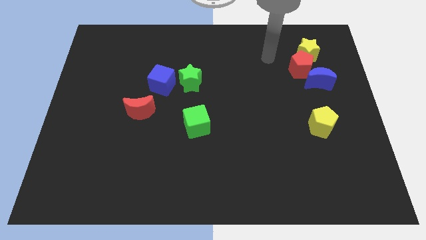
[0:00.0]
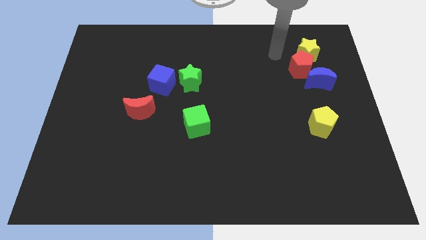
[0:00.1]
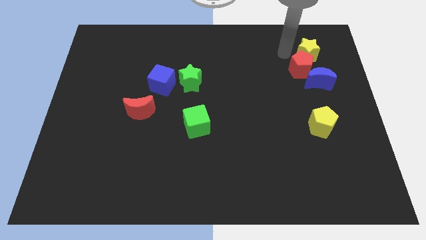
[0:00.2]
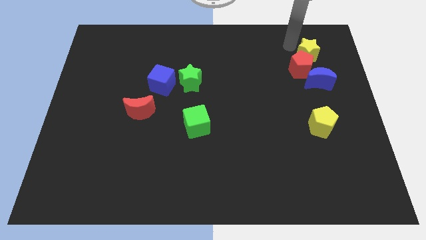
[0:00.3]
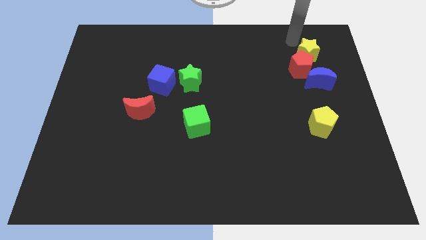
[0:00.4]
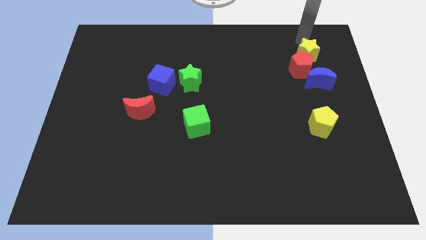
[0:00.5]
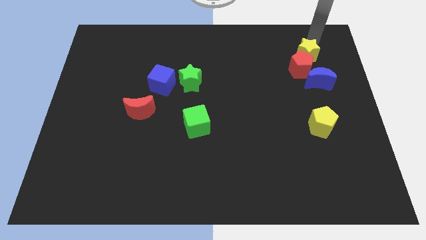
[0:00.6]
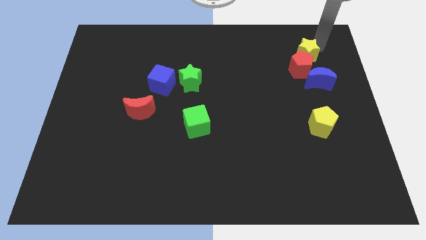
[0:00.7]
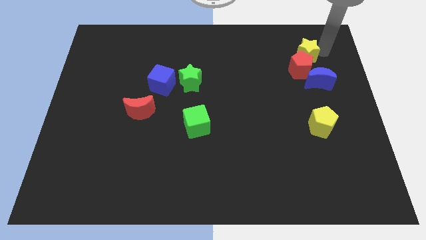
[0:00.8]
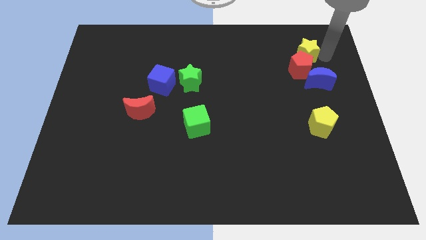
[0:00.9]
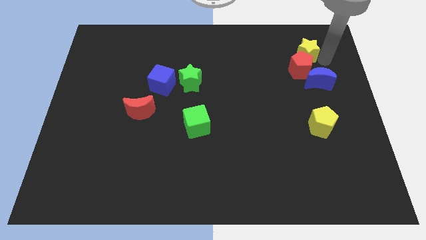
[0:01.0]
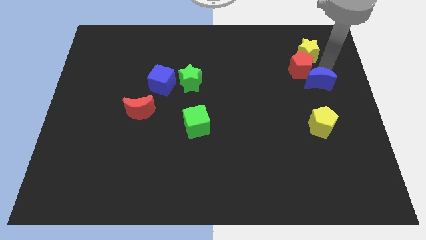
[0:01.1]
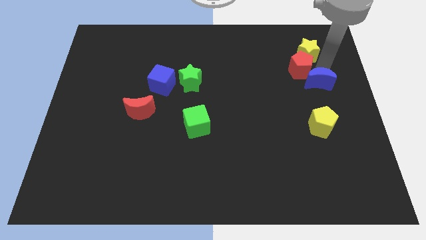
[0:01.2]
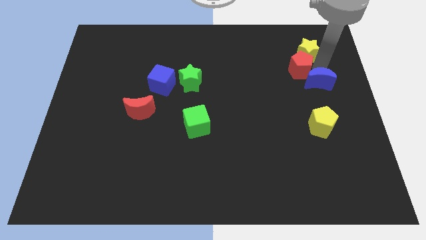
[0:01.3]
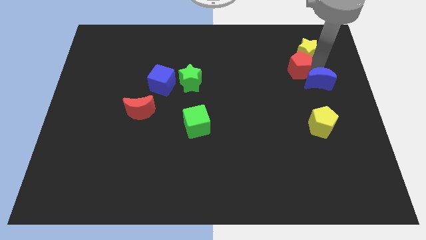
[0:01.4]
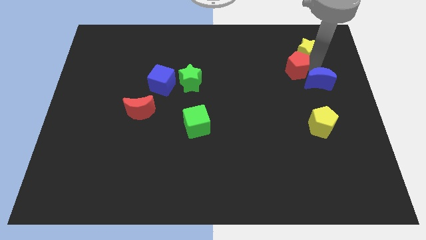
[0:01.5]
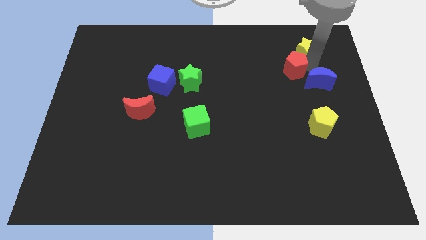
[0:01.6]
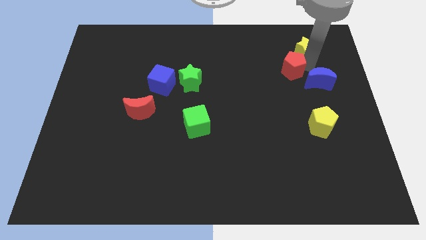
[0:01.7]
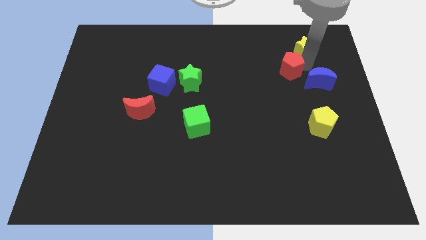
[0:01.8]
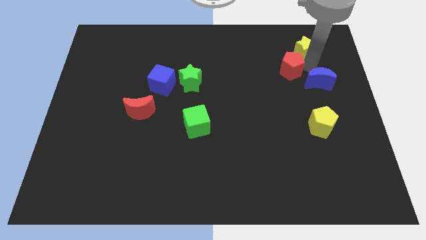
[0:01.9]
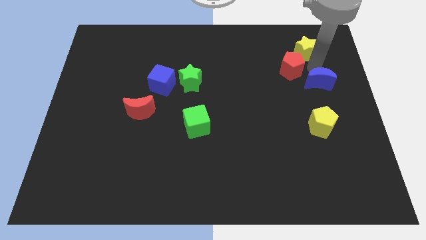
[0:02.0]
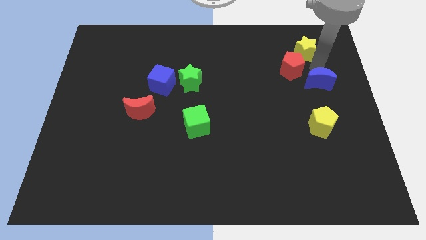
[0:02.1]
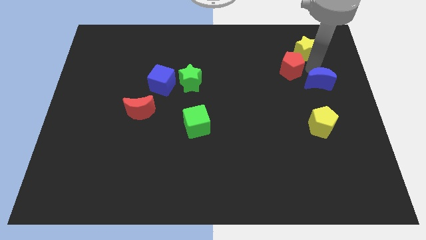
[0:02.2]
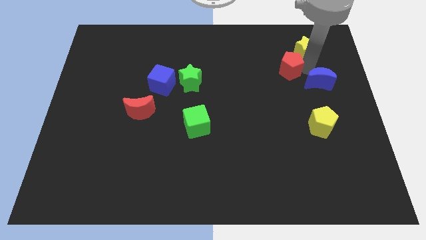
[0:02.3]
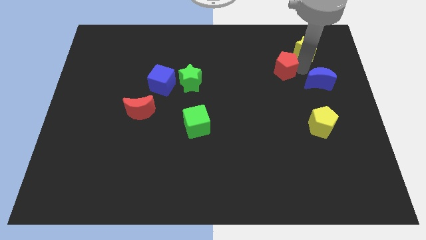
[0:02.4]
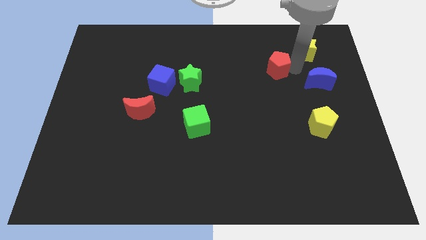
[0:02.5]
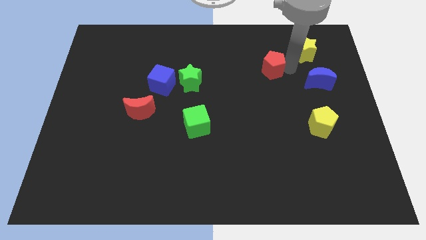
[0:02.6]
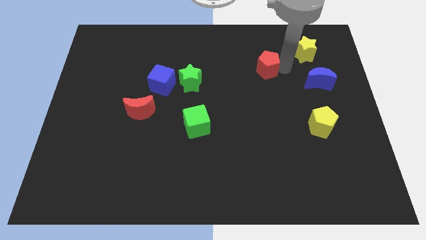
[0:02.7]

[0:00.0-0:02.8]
pull the red pentagon apart from the yellow star and blue moon

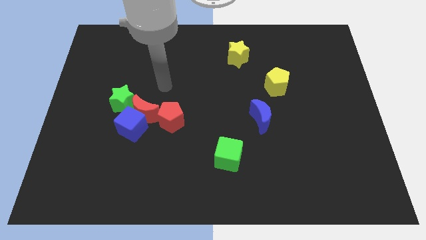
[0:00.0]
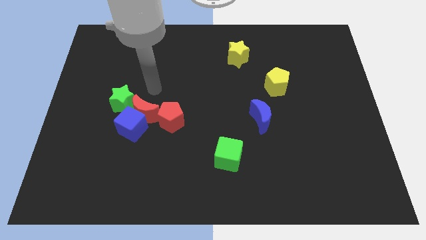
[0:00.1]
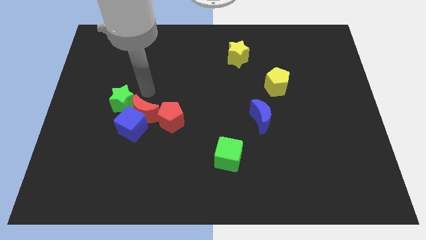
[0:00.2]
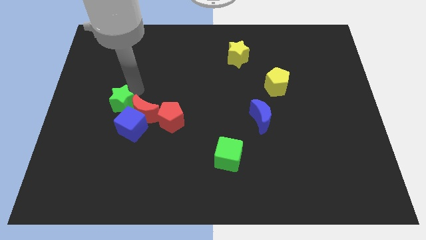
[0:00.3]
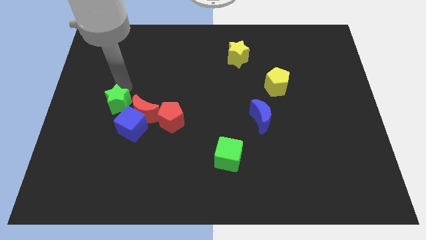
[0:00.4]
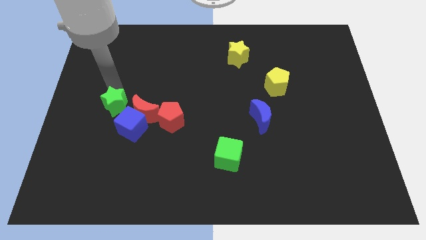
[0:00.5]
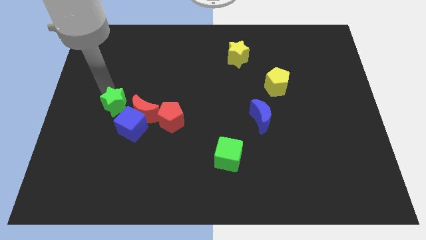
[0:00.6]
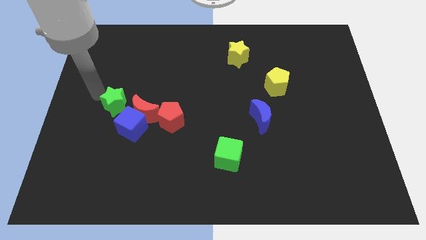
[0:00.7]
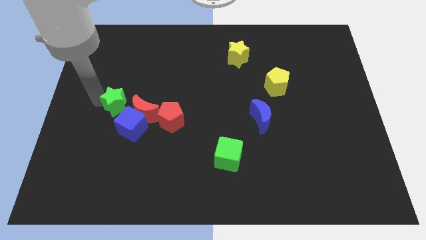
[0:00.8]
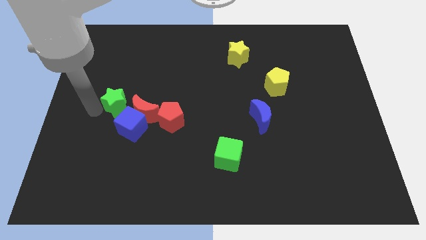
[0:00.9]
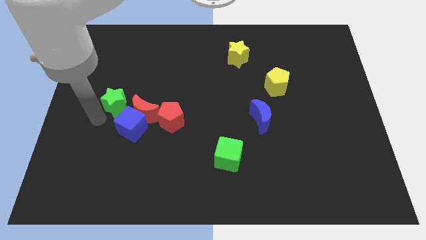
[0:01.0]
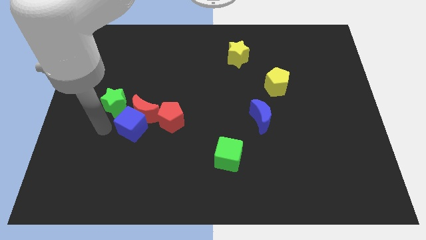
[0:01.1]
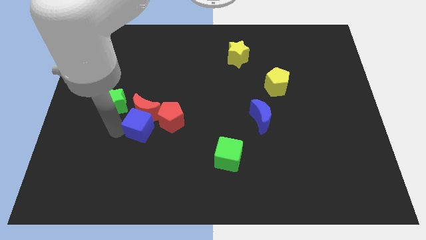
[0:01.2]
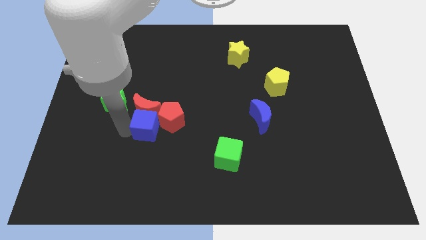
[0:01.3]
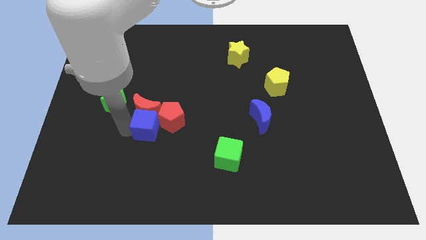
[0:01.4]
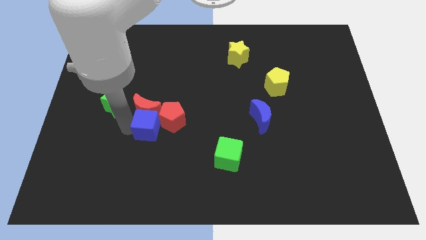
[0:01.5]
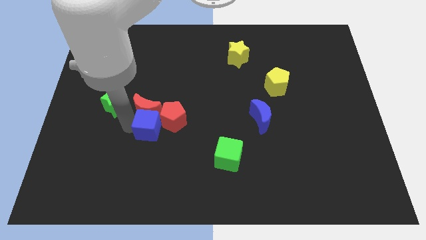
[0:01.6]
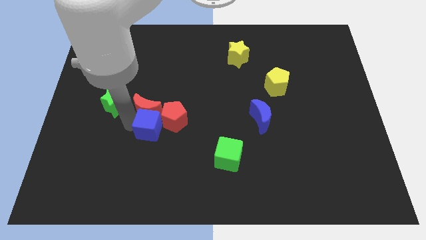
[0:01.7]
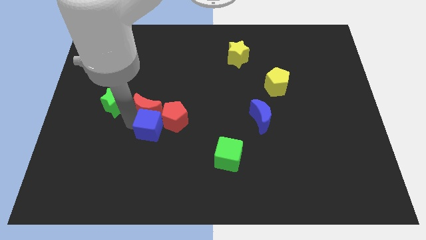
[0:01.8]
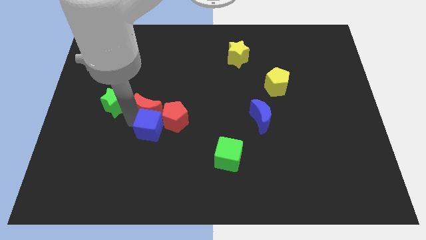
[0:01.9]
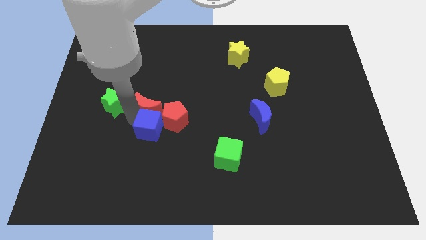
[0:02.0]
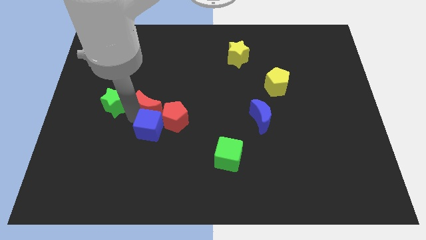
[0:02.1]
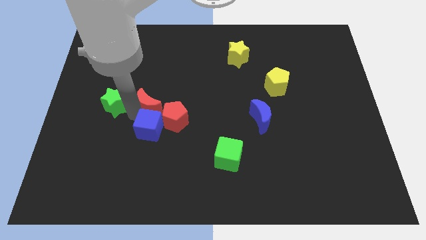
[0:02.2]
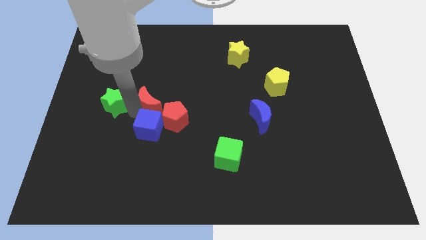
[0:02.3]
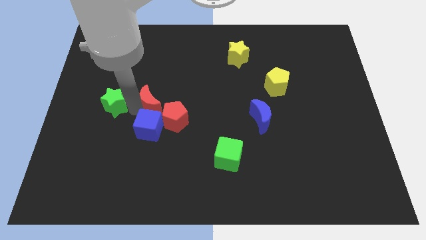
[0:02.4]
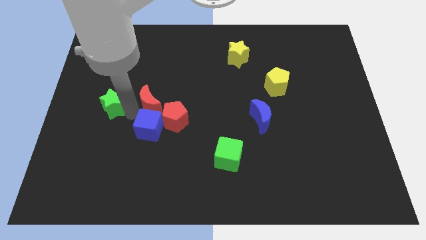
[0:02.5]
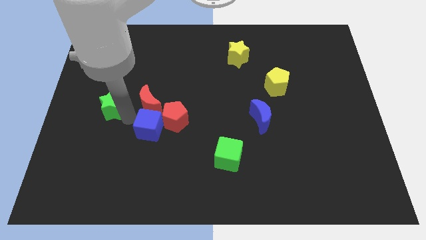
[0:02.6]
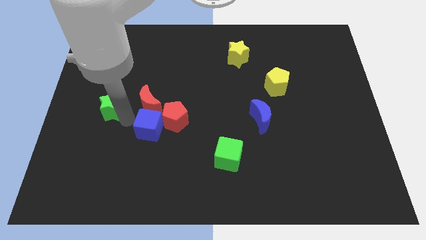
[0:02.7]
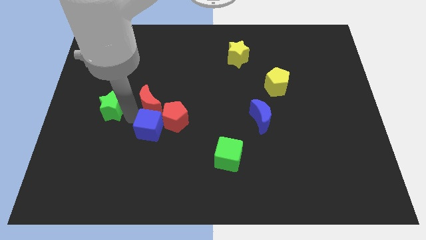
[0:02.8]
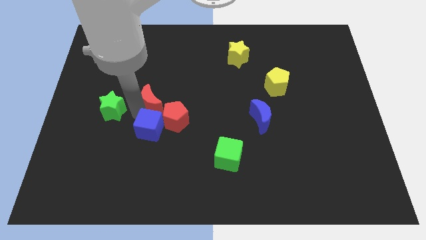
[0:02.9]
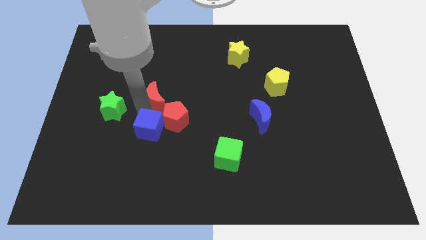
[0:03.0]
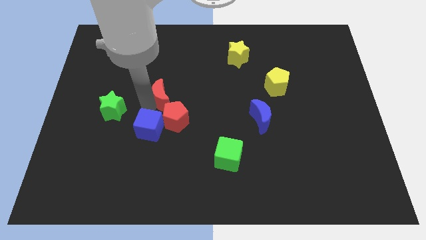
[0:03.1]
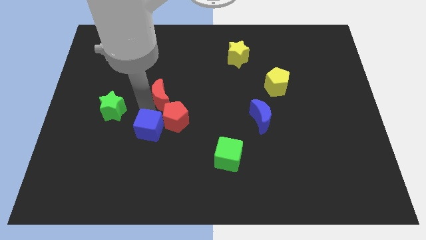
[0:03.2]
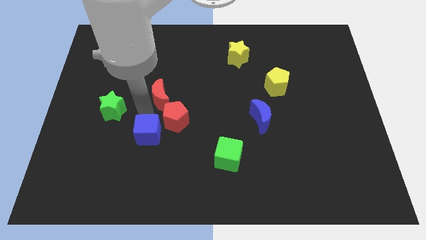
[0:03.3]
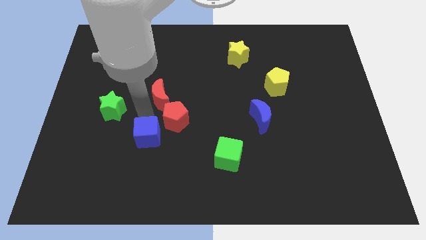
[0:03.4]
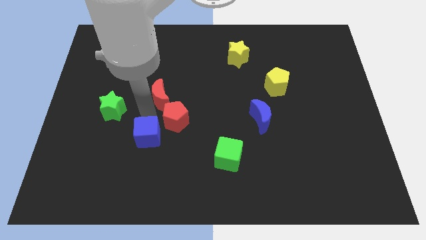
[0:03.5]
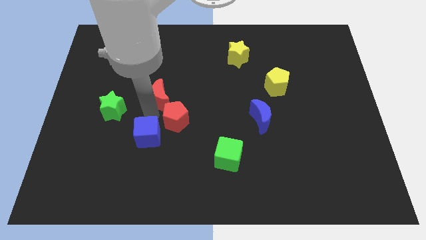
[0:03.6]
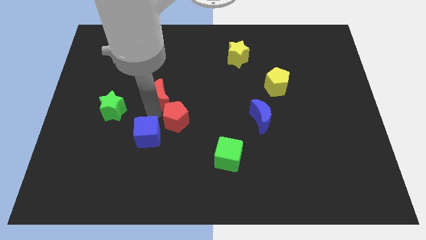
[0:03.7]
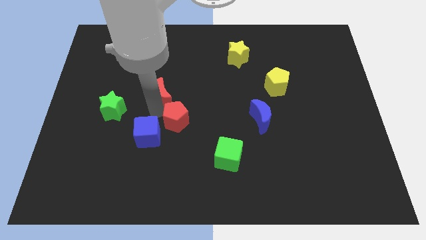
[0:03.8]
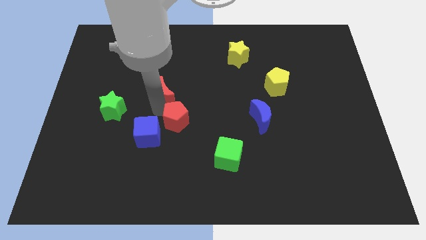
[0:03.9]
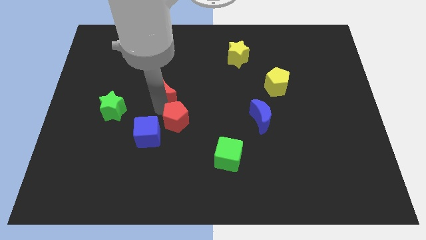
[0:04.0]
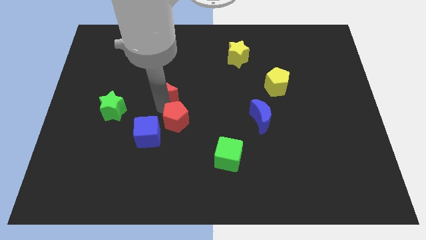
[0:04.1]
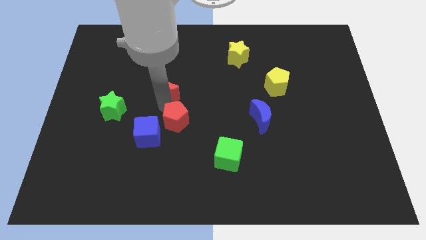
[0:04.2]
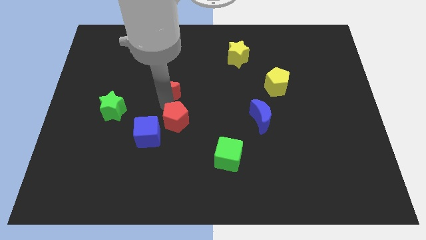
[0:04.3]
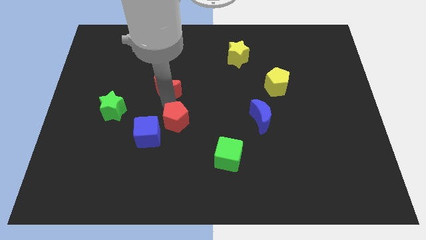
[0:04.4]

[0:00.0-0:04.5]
move the red moon away from the blue cube, red pentagon, and green star

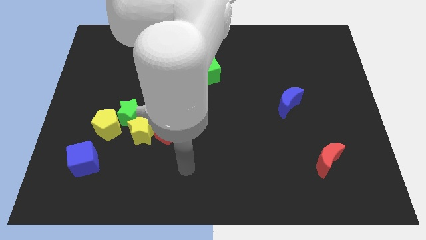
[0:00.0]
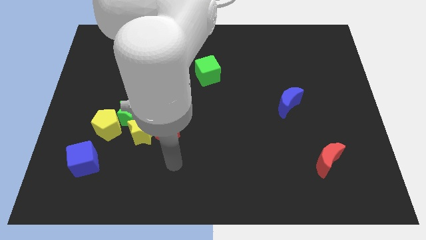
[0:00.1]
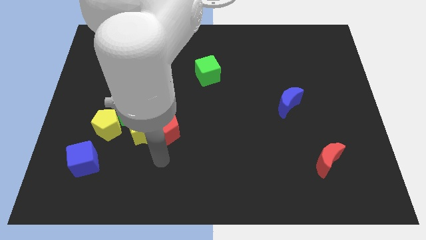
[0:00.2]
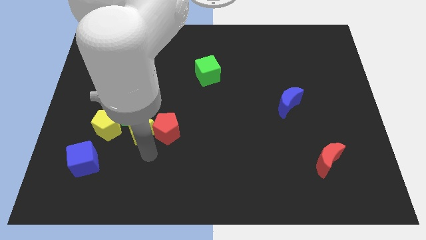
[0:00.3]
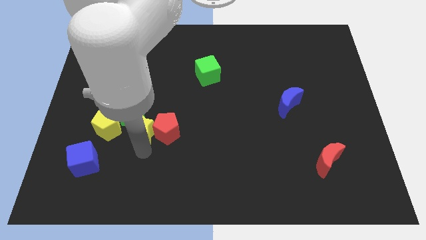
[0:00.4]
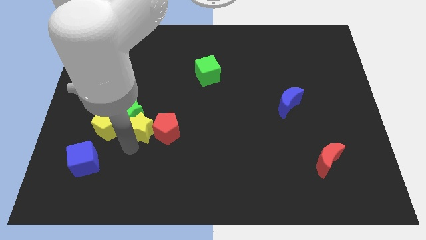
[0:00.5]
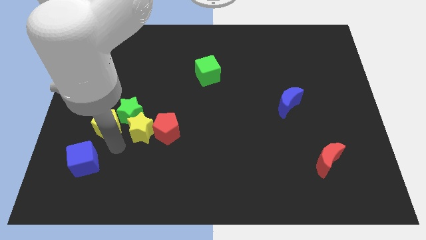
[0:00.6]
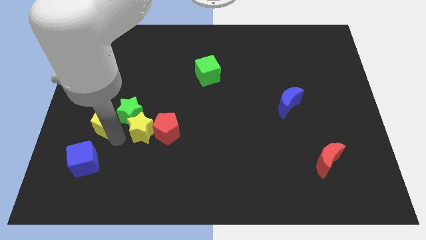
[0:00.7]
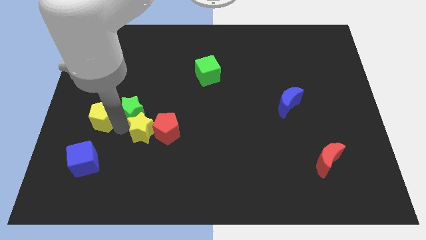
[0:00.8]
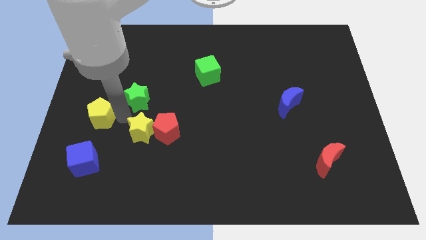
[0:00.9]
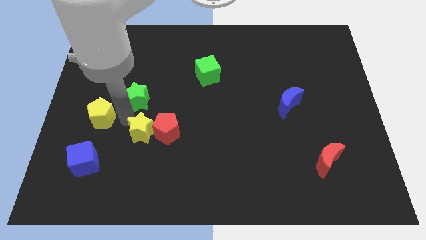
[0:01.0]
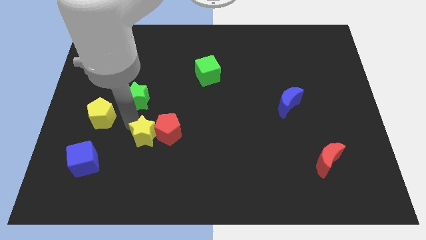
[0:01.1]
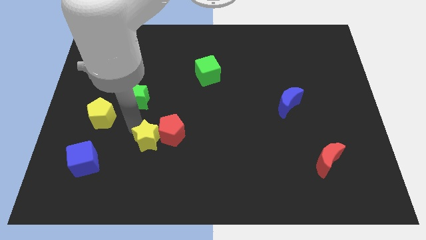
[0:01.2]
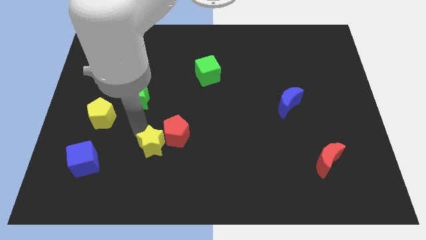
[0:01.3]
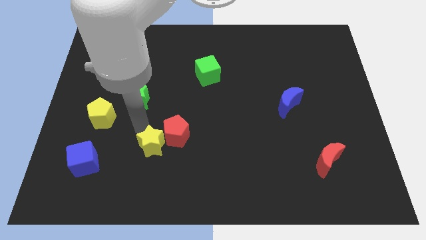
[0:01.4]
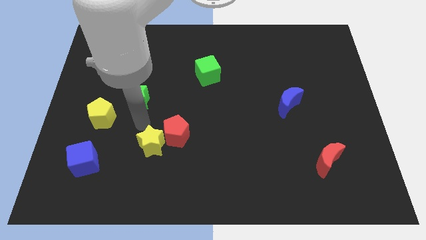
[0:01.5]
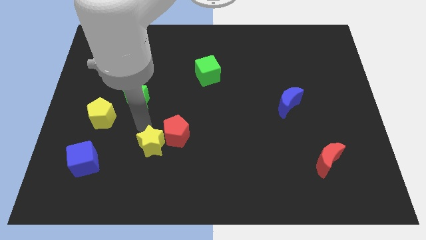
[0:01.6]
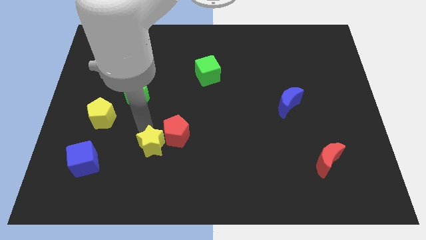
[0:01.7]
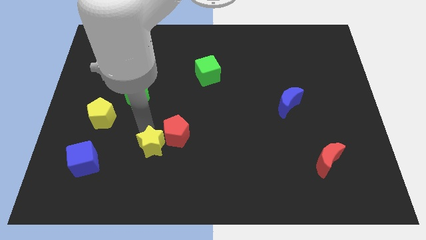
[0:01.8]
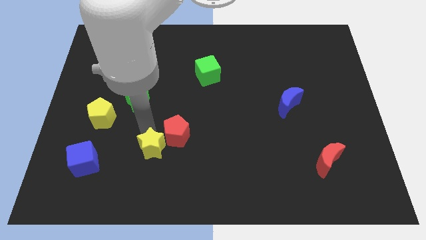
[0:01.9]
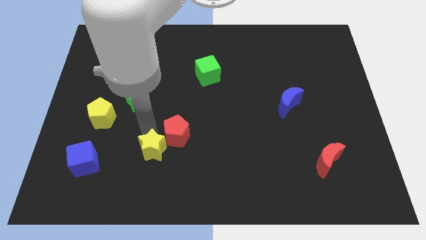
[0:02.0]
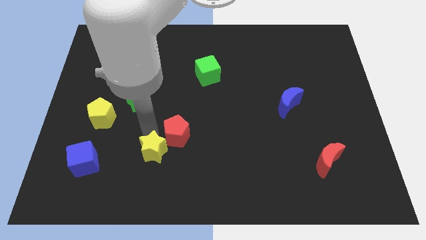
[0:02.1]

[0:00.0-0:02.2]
pull the yellow star apart from the group
